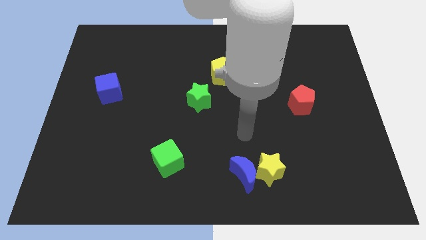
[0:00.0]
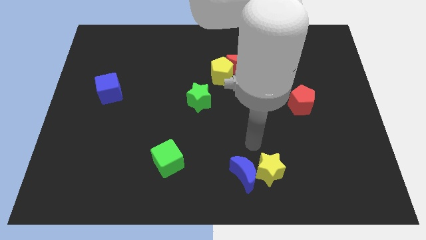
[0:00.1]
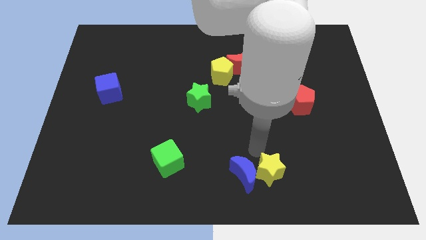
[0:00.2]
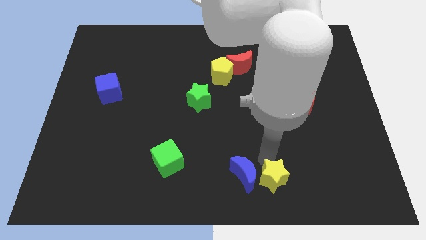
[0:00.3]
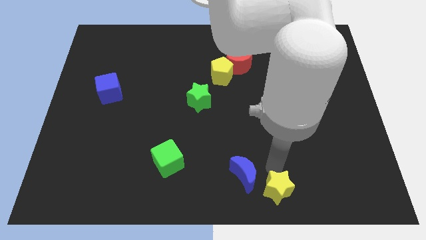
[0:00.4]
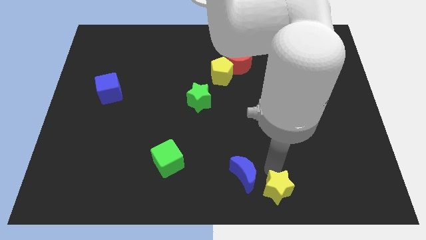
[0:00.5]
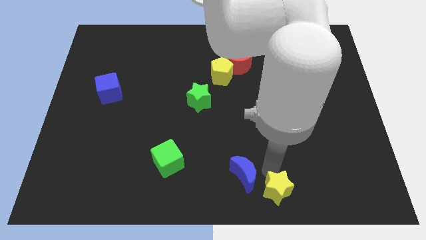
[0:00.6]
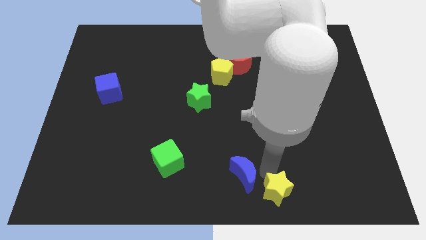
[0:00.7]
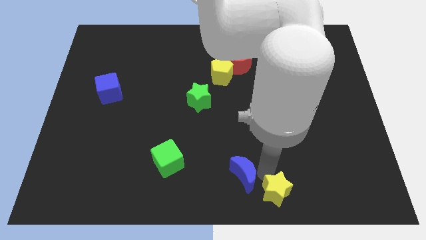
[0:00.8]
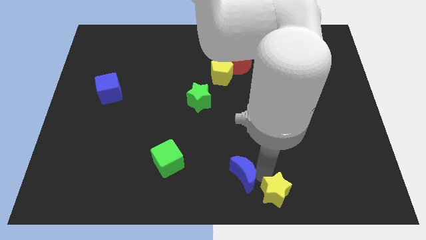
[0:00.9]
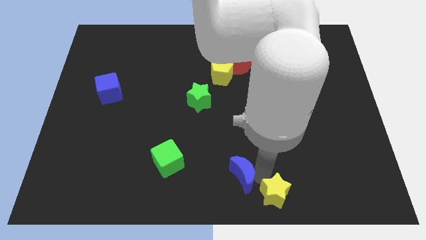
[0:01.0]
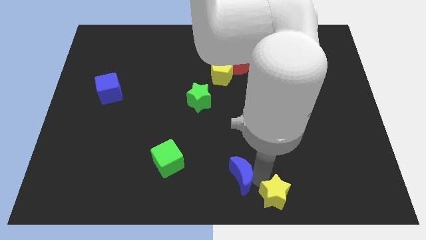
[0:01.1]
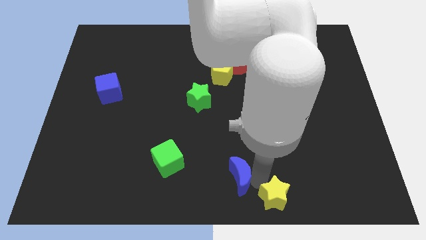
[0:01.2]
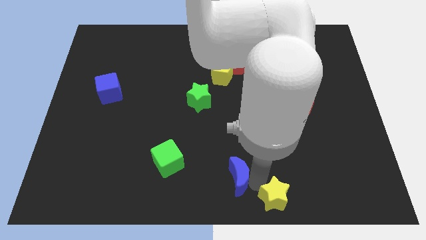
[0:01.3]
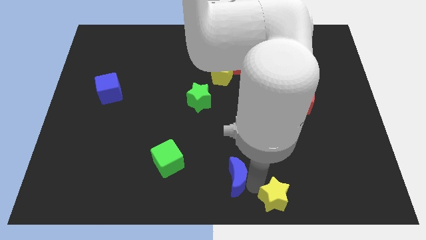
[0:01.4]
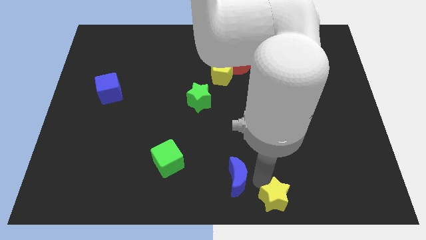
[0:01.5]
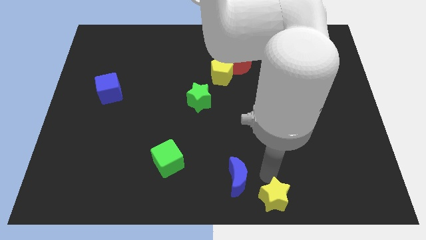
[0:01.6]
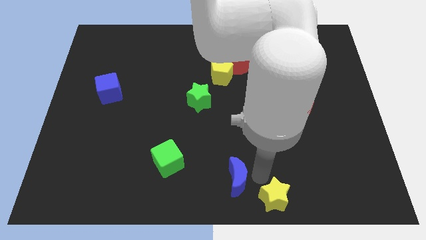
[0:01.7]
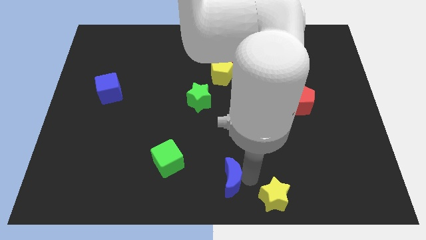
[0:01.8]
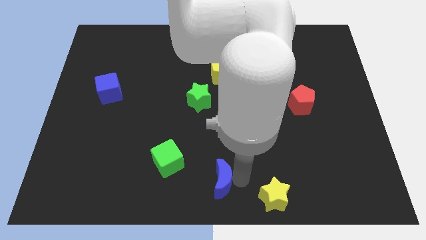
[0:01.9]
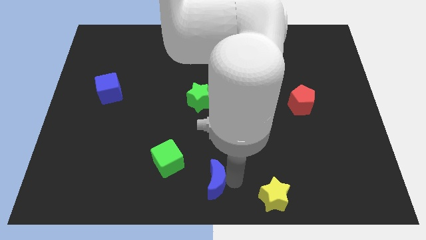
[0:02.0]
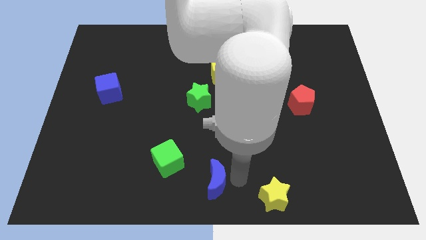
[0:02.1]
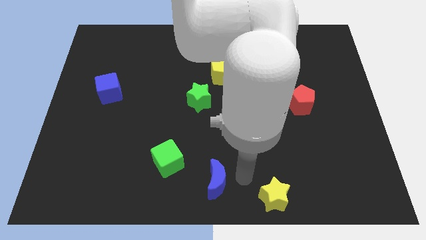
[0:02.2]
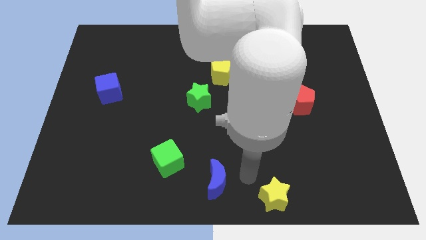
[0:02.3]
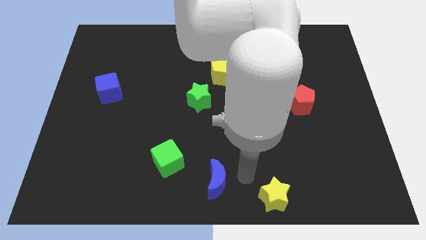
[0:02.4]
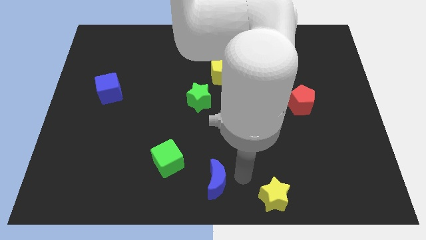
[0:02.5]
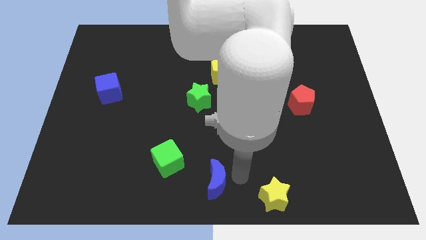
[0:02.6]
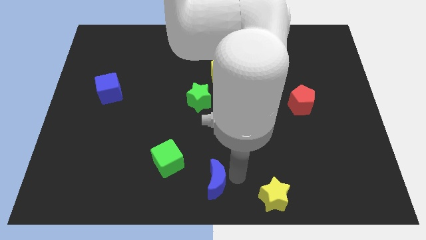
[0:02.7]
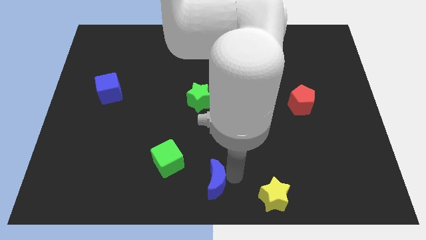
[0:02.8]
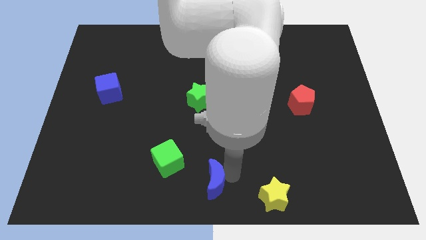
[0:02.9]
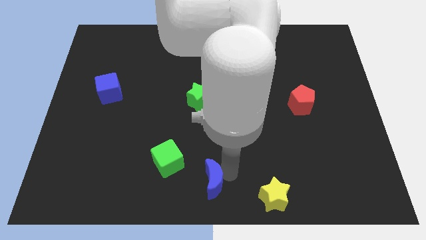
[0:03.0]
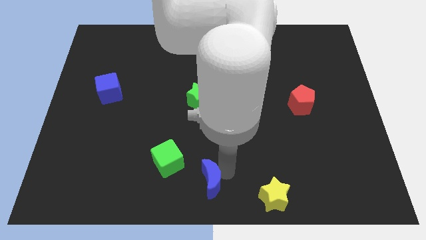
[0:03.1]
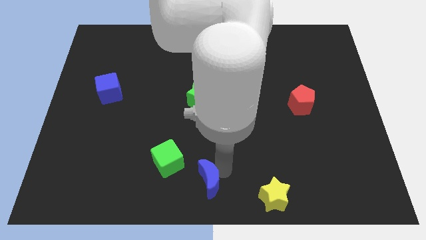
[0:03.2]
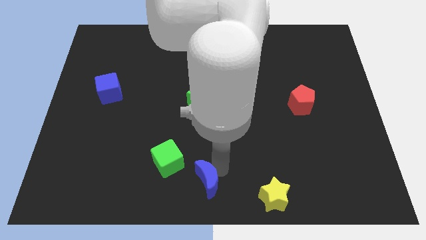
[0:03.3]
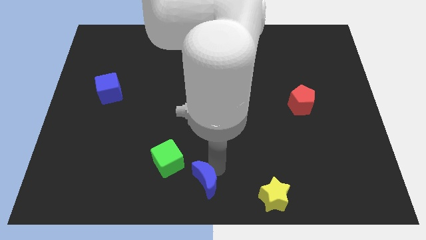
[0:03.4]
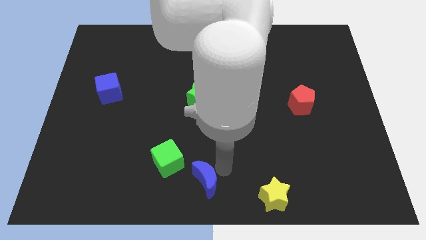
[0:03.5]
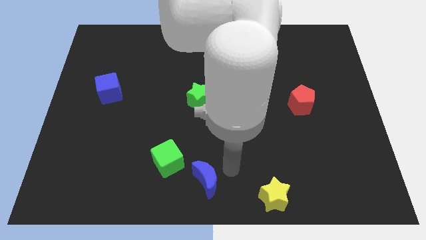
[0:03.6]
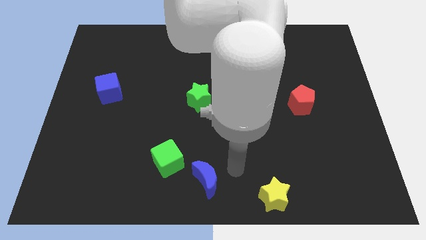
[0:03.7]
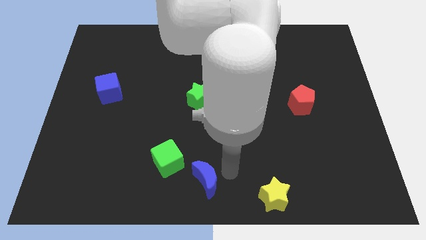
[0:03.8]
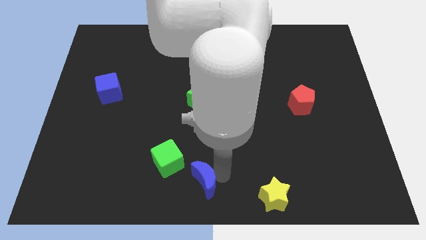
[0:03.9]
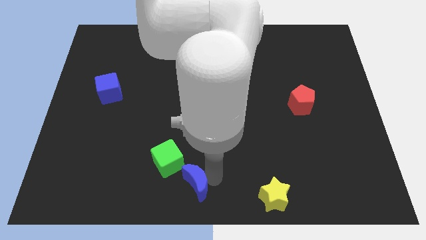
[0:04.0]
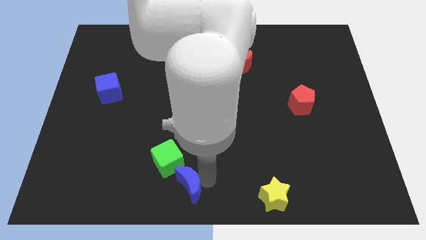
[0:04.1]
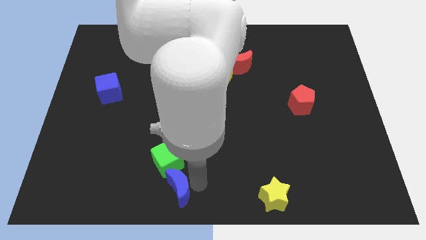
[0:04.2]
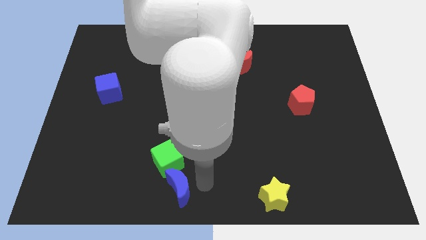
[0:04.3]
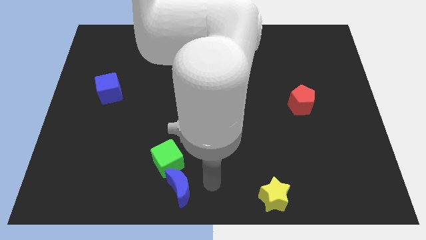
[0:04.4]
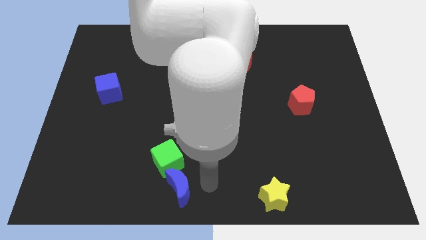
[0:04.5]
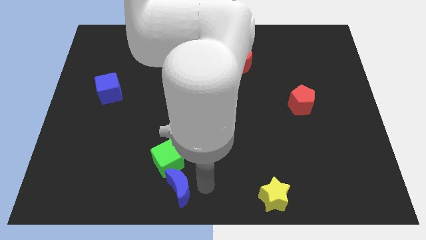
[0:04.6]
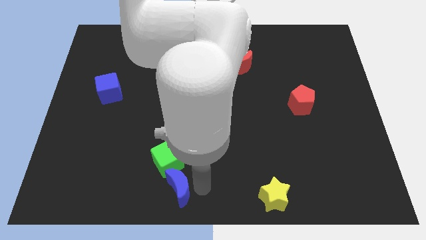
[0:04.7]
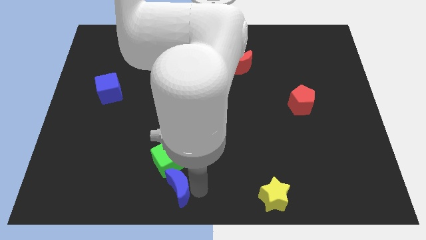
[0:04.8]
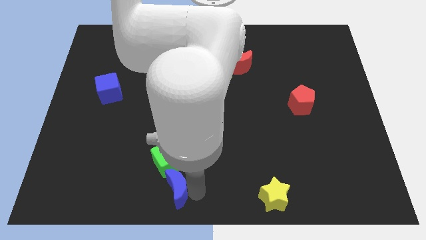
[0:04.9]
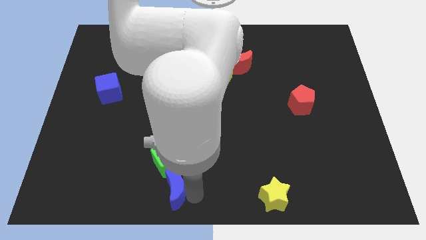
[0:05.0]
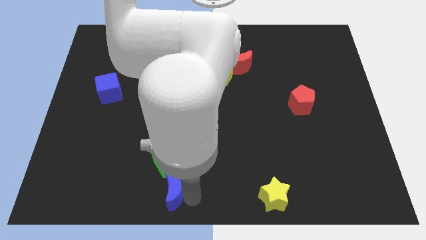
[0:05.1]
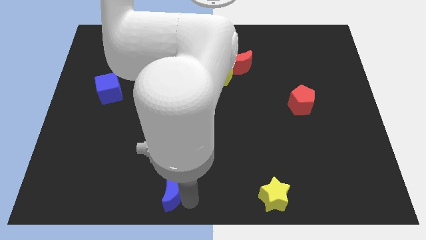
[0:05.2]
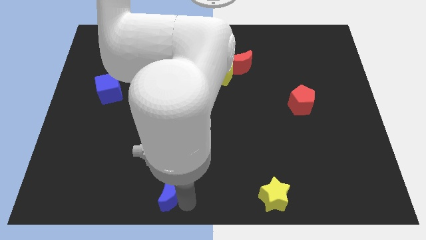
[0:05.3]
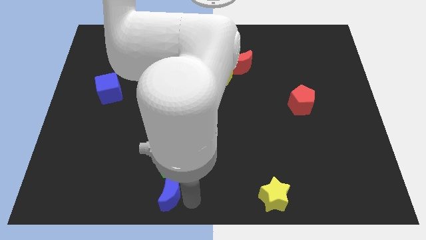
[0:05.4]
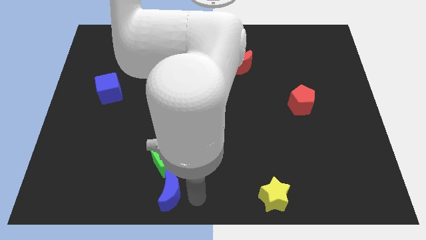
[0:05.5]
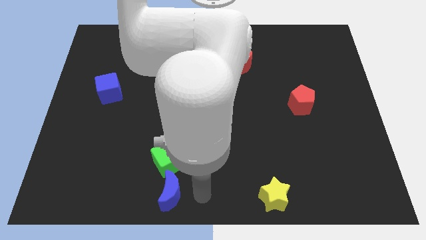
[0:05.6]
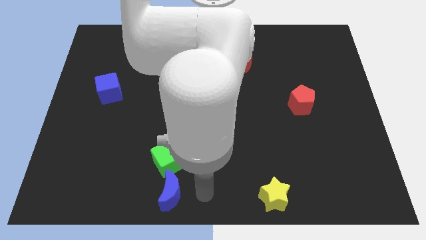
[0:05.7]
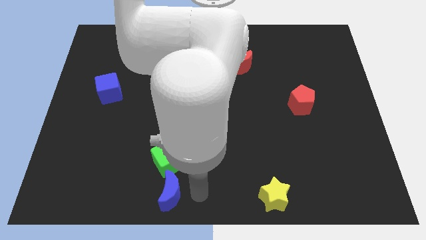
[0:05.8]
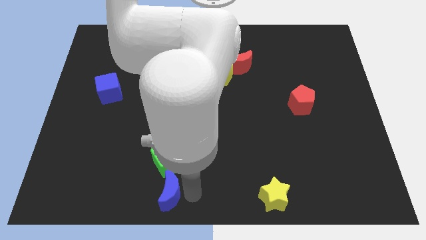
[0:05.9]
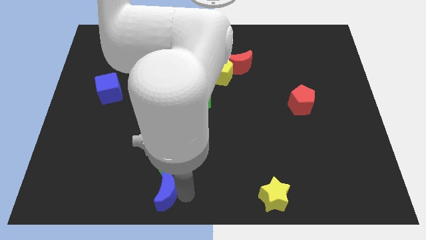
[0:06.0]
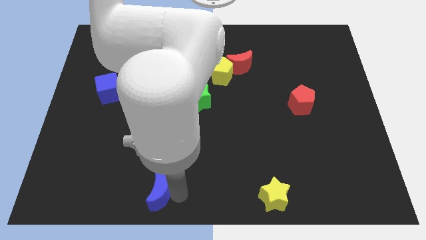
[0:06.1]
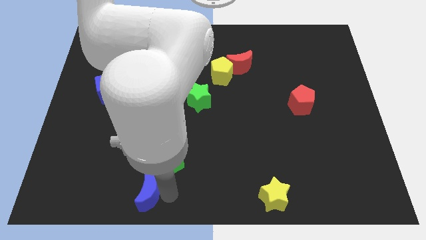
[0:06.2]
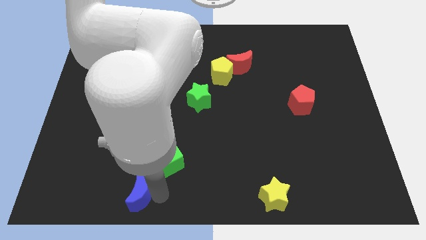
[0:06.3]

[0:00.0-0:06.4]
slide the blue moon left

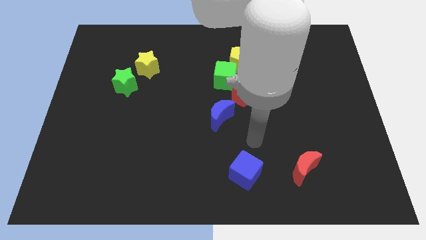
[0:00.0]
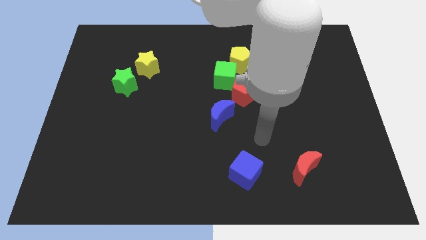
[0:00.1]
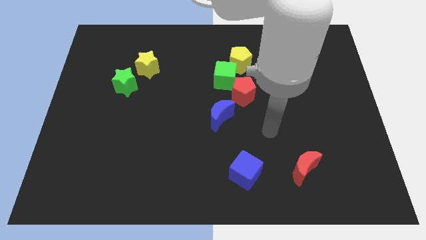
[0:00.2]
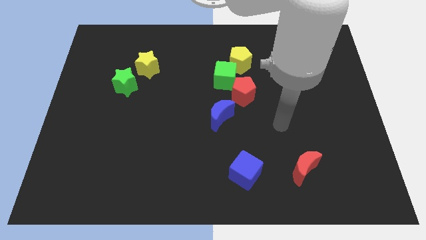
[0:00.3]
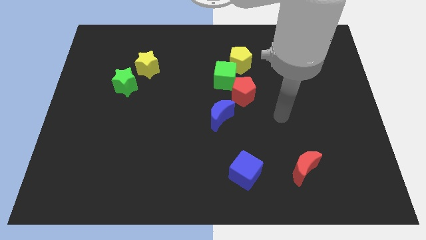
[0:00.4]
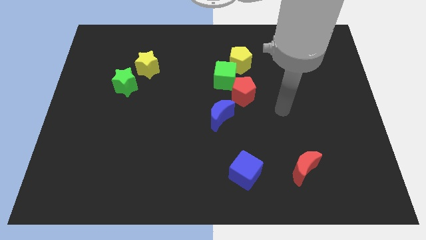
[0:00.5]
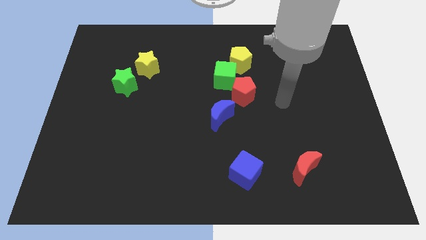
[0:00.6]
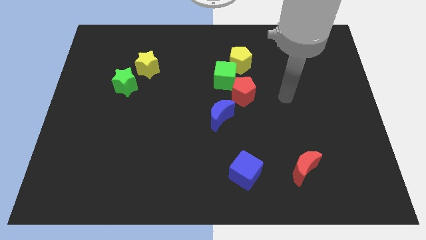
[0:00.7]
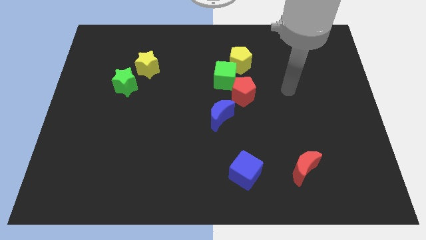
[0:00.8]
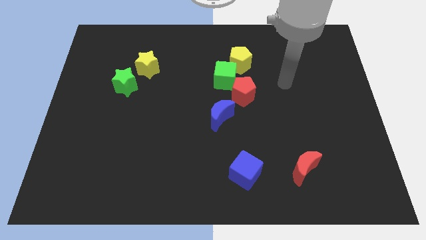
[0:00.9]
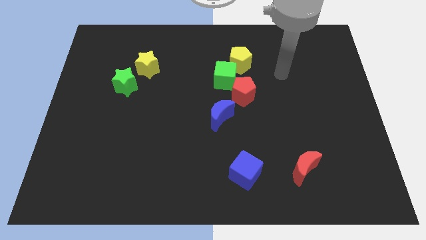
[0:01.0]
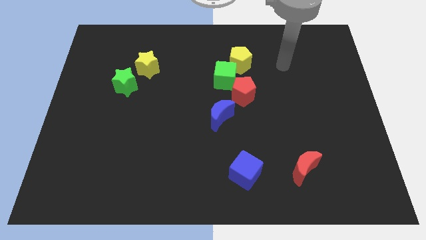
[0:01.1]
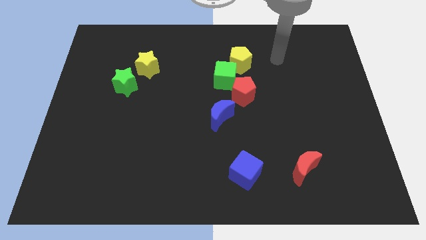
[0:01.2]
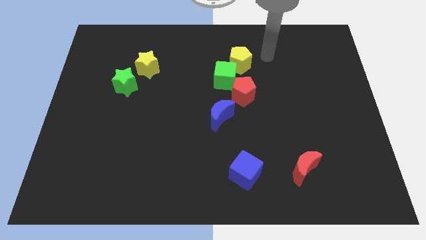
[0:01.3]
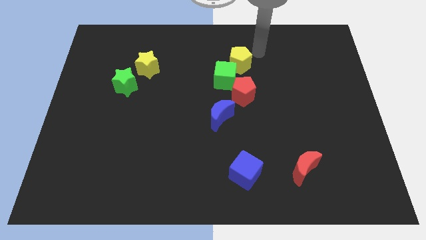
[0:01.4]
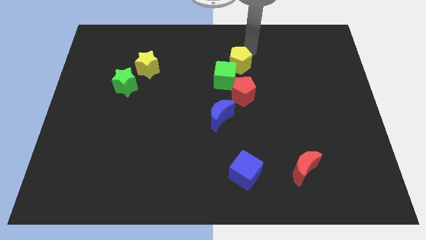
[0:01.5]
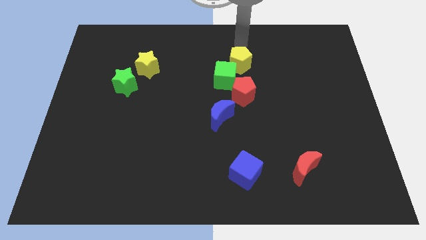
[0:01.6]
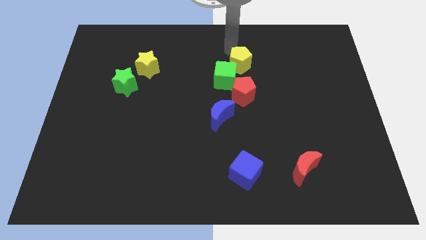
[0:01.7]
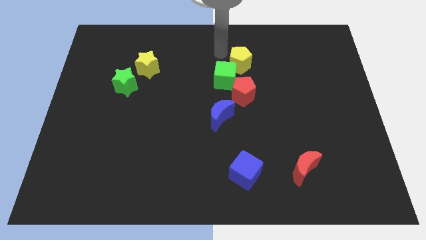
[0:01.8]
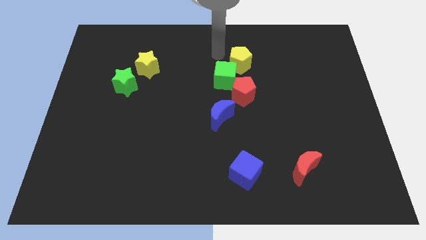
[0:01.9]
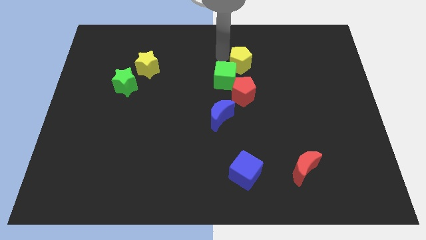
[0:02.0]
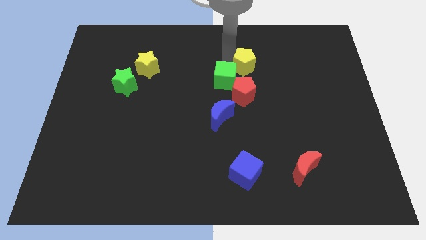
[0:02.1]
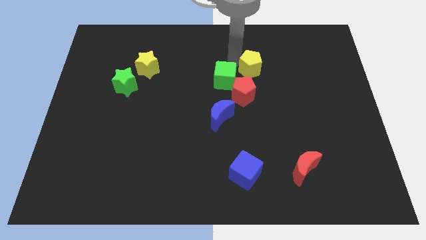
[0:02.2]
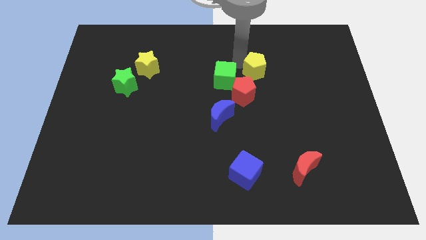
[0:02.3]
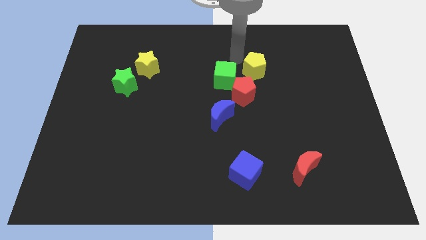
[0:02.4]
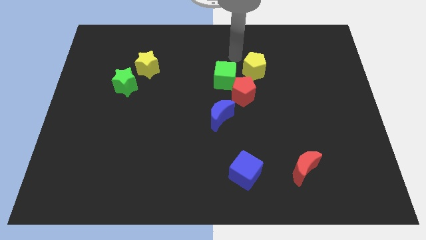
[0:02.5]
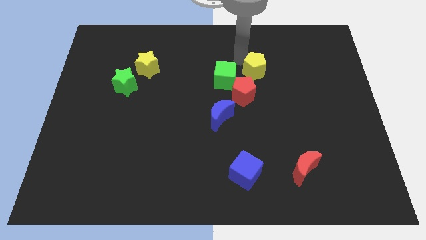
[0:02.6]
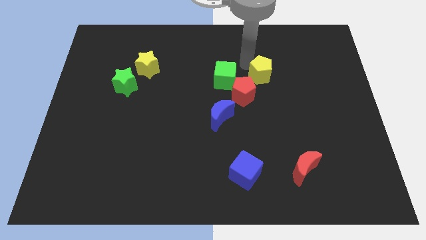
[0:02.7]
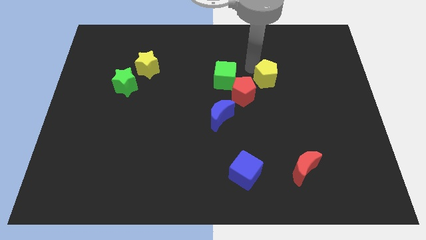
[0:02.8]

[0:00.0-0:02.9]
move the yellow pentagon somewhat downwards and then right
